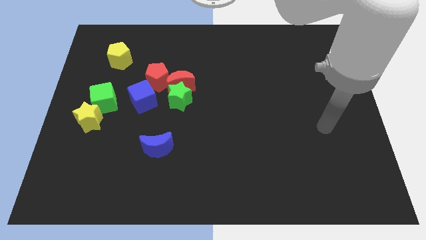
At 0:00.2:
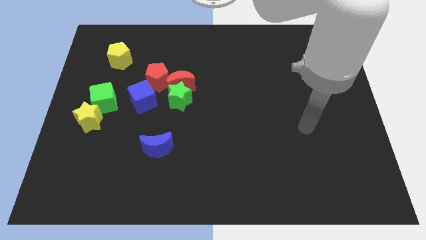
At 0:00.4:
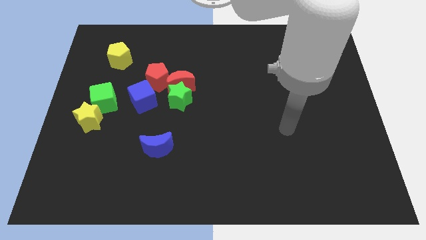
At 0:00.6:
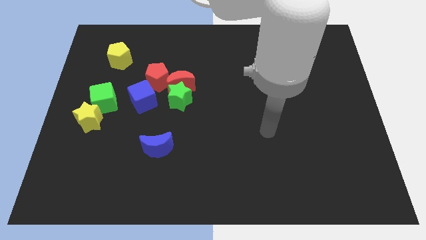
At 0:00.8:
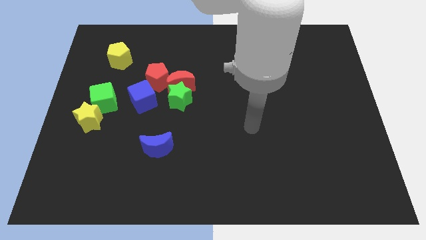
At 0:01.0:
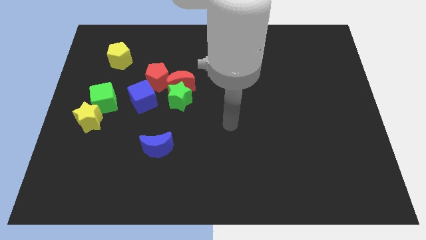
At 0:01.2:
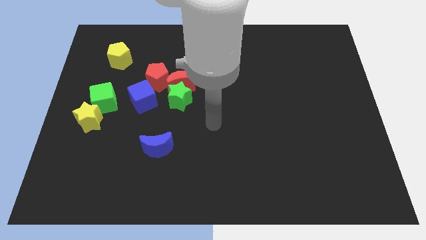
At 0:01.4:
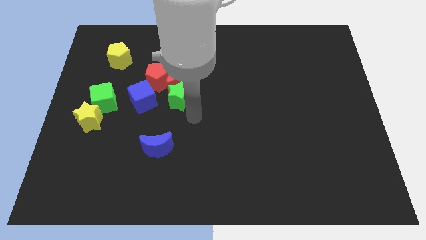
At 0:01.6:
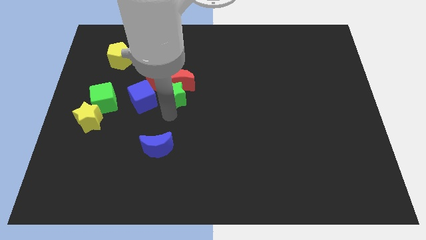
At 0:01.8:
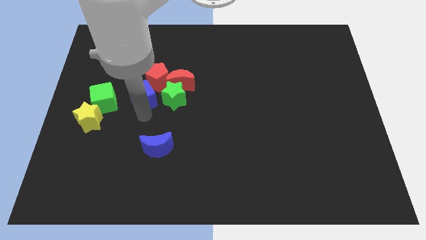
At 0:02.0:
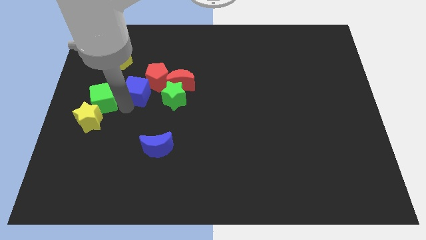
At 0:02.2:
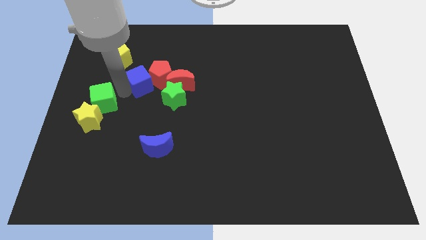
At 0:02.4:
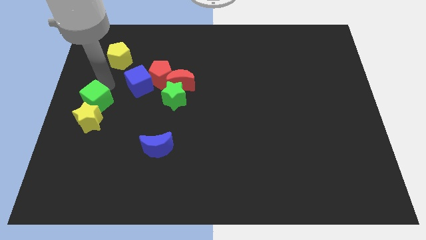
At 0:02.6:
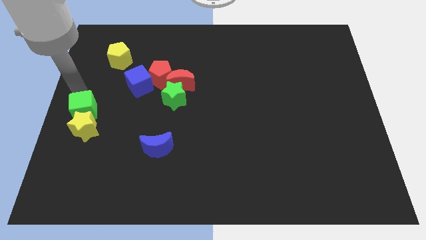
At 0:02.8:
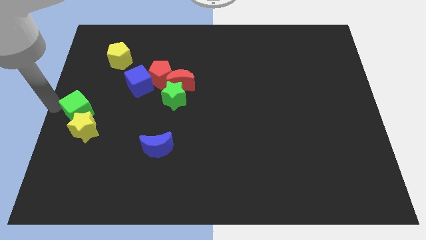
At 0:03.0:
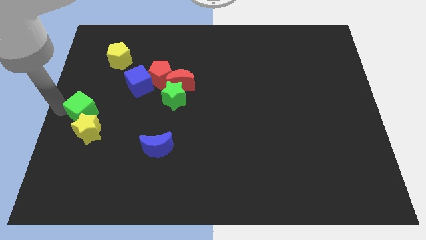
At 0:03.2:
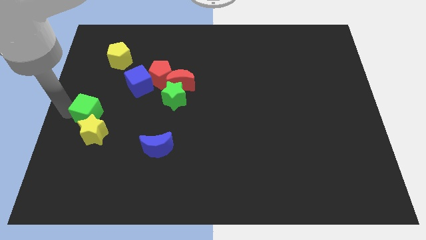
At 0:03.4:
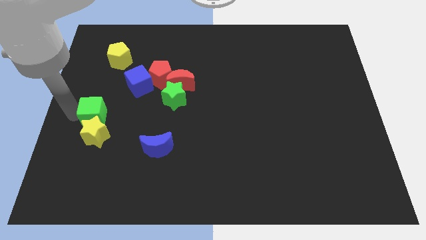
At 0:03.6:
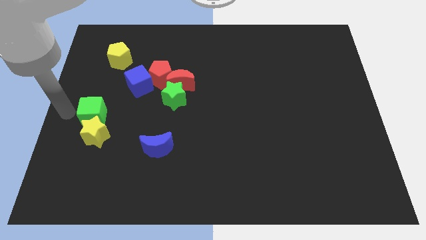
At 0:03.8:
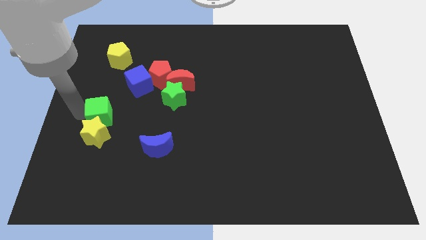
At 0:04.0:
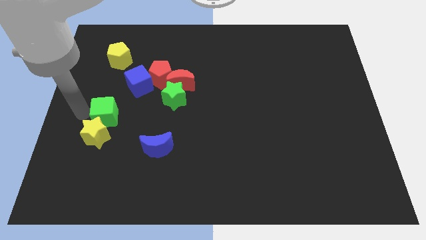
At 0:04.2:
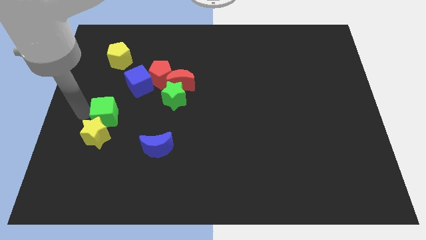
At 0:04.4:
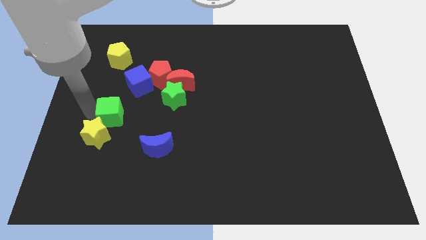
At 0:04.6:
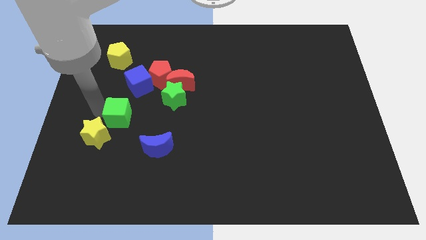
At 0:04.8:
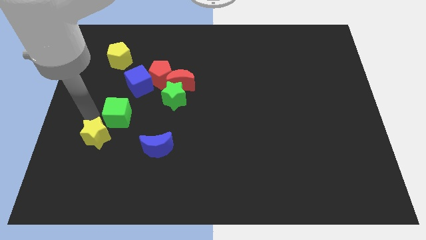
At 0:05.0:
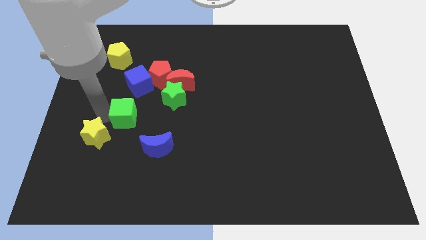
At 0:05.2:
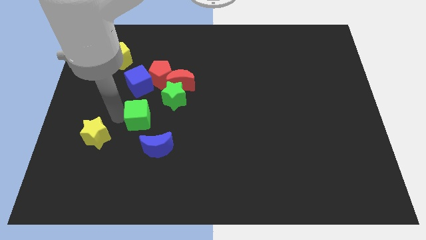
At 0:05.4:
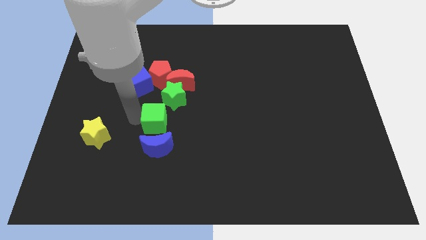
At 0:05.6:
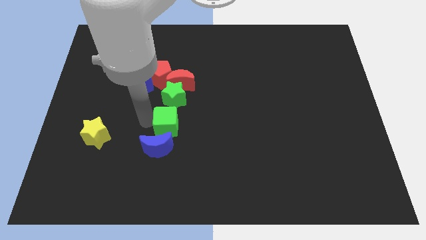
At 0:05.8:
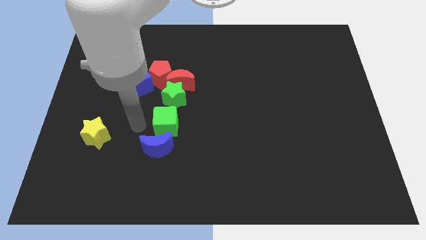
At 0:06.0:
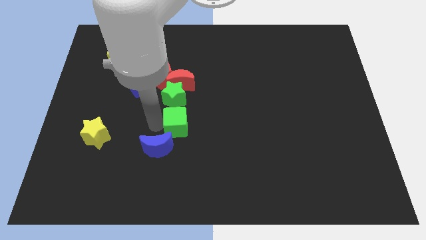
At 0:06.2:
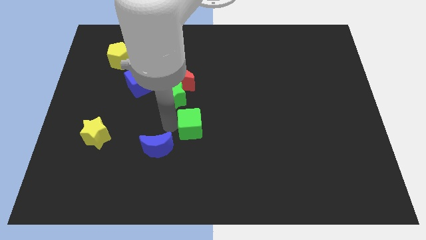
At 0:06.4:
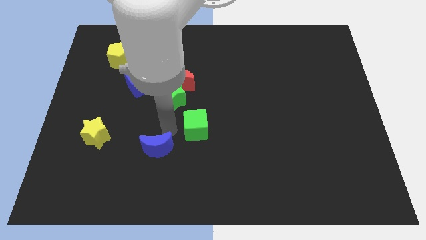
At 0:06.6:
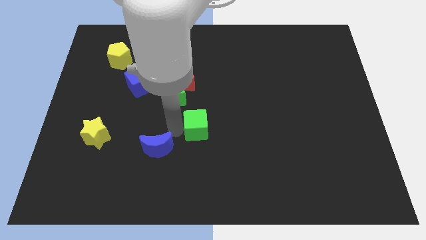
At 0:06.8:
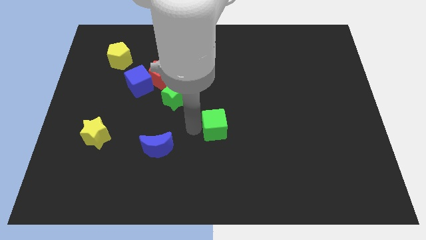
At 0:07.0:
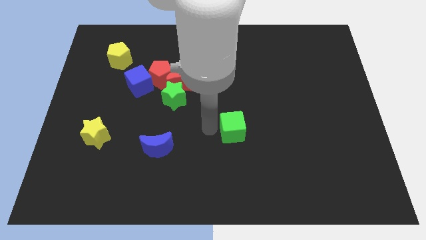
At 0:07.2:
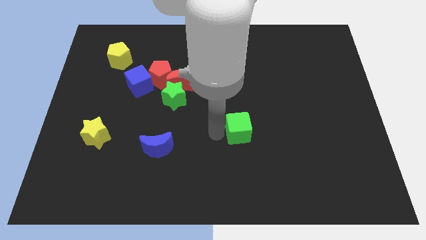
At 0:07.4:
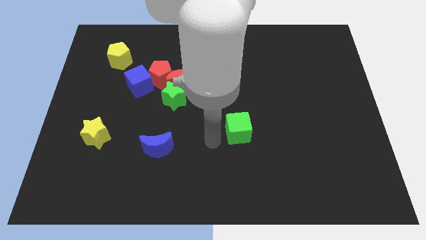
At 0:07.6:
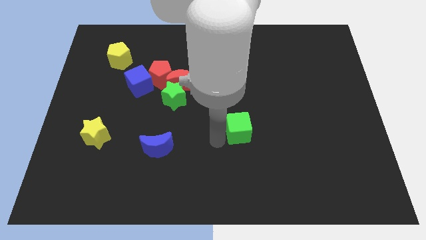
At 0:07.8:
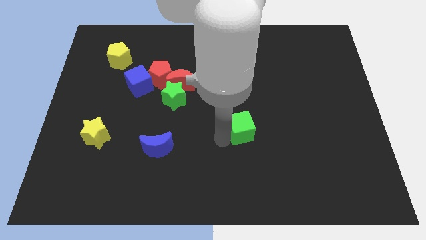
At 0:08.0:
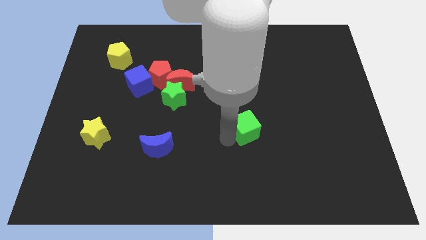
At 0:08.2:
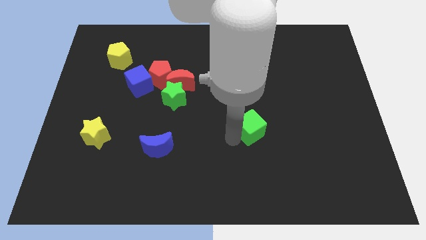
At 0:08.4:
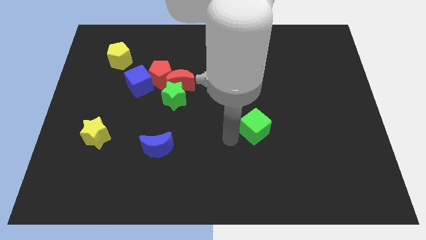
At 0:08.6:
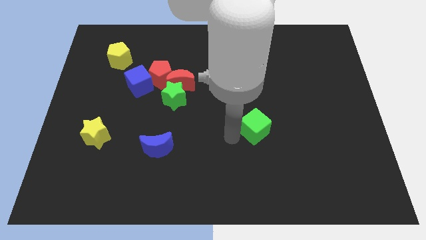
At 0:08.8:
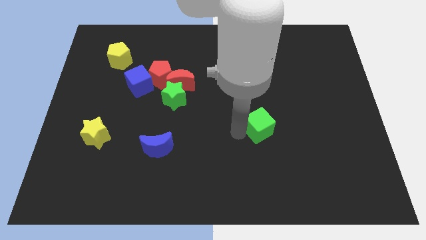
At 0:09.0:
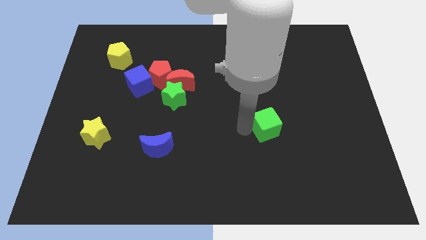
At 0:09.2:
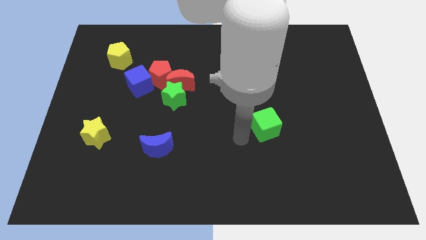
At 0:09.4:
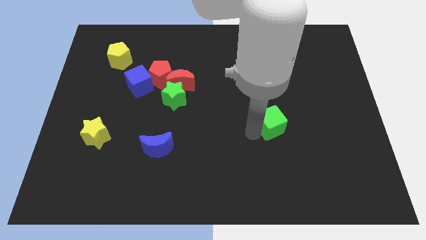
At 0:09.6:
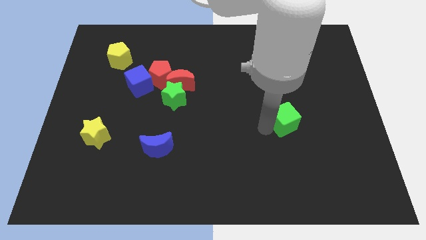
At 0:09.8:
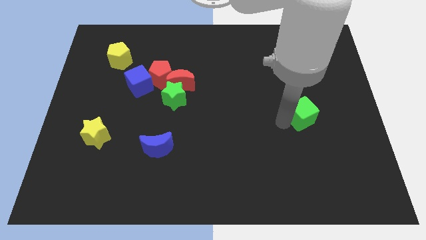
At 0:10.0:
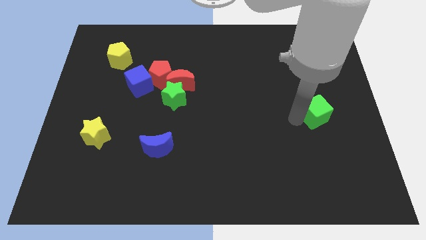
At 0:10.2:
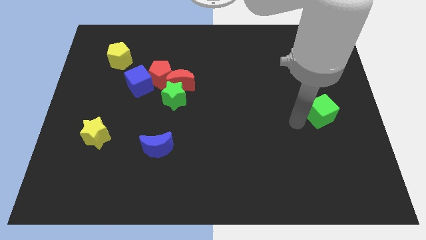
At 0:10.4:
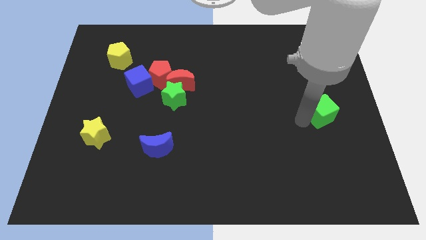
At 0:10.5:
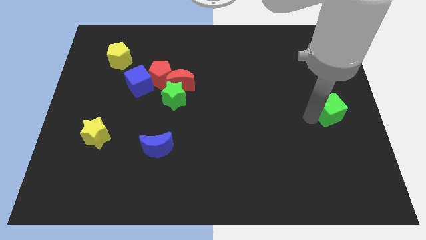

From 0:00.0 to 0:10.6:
slide the green cube to the center right
